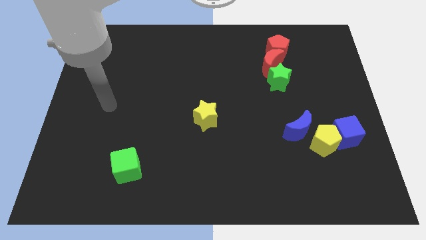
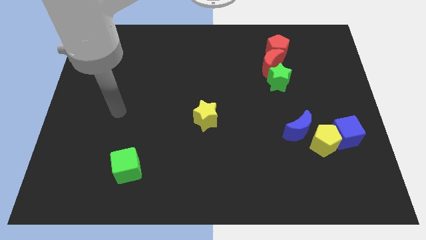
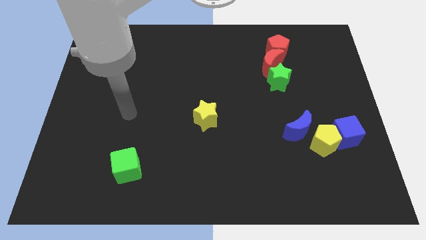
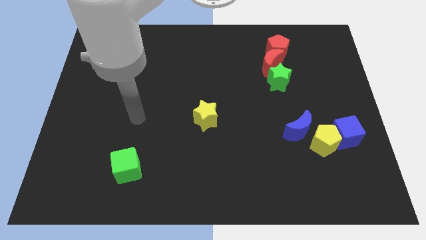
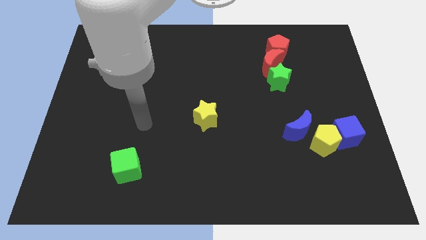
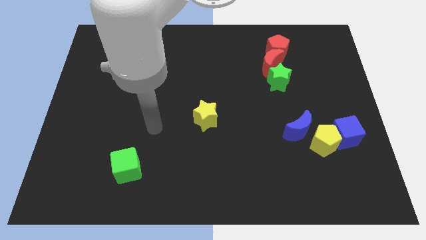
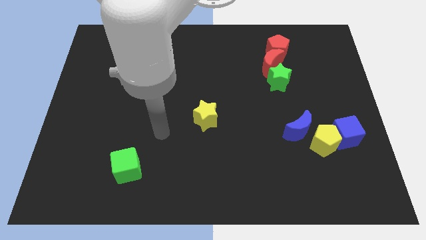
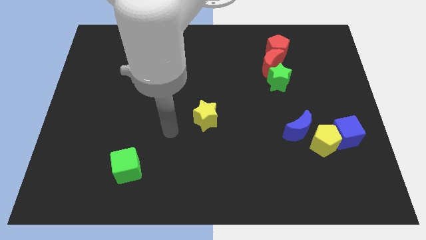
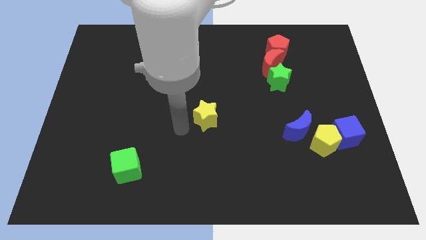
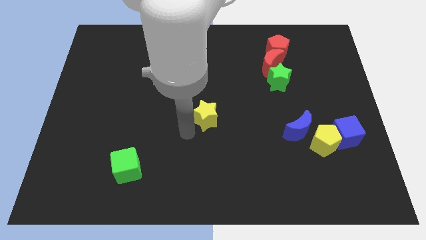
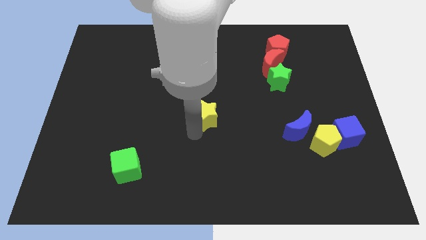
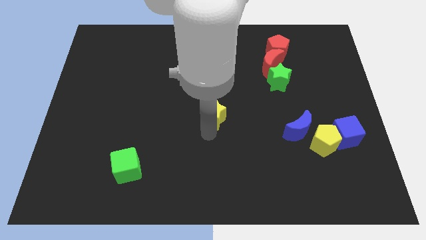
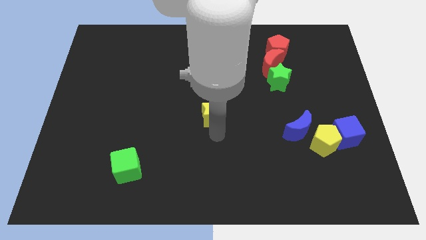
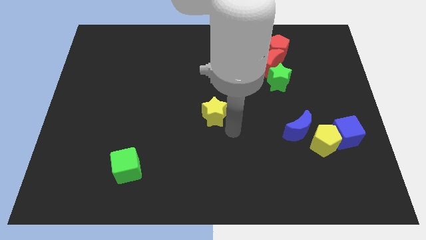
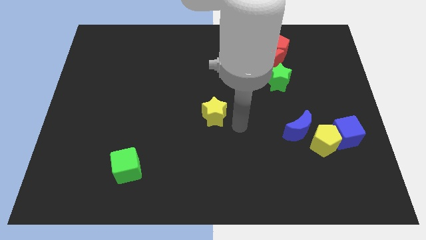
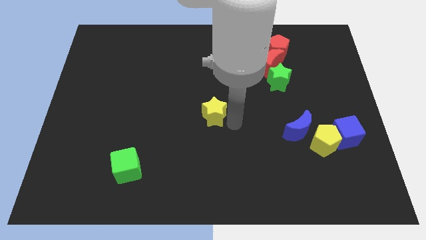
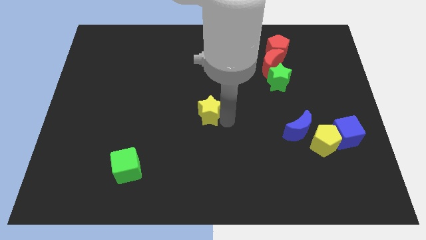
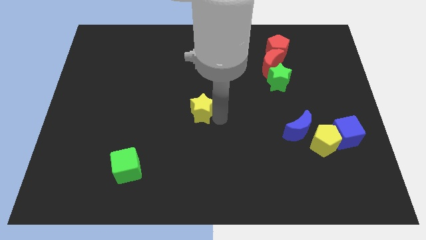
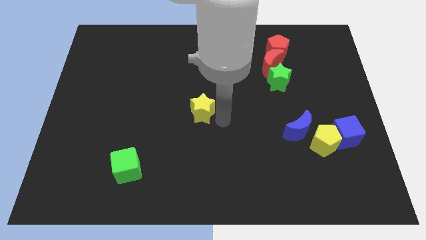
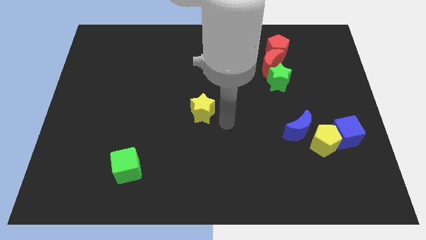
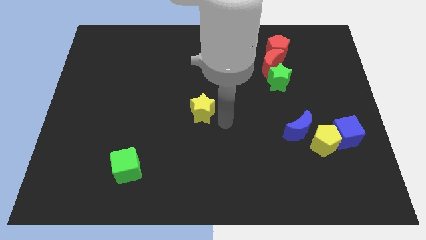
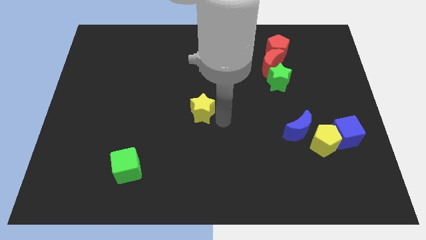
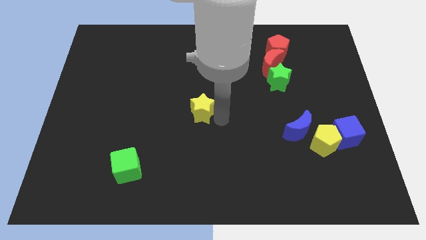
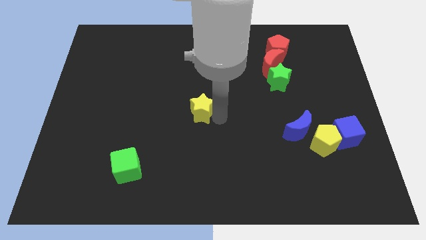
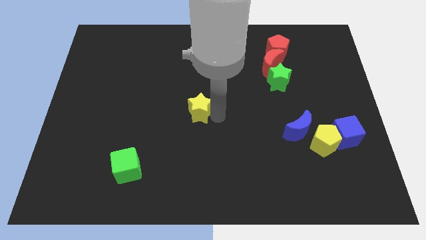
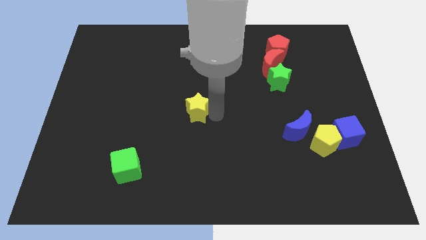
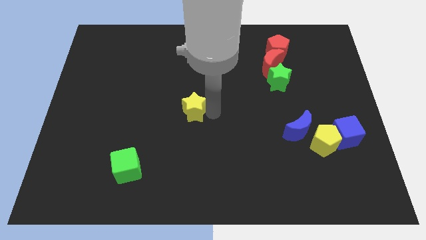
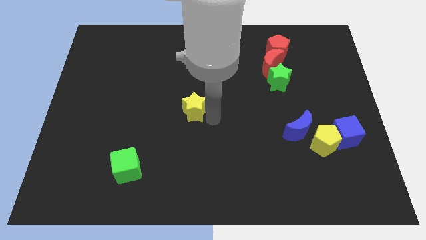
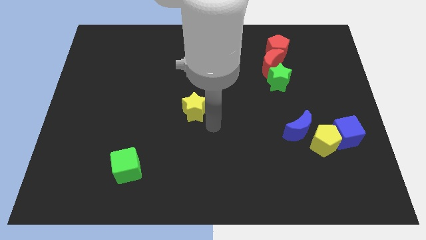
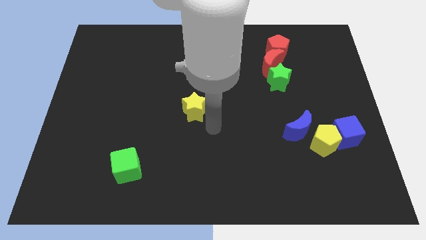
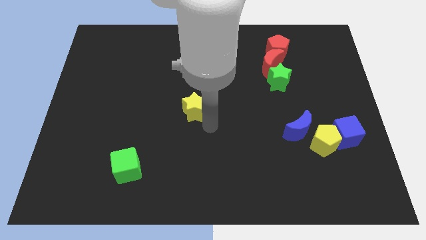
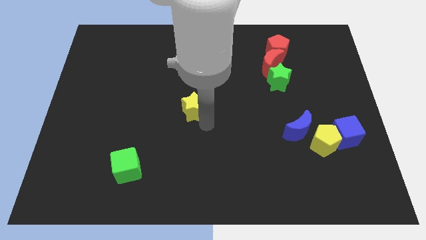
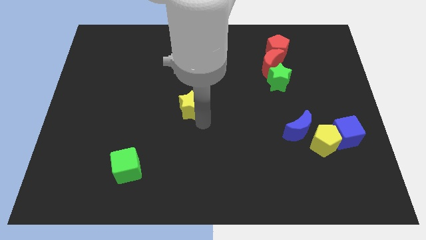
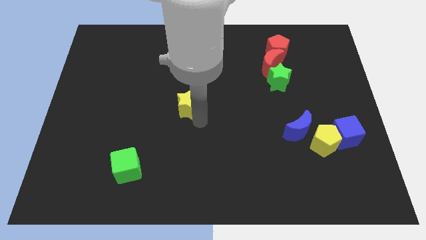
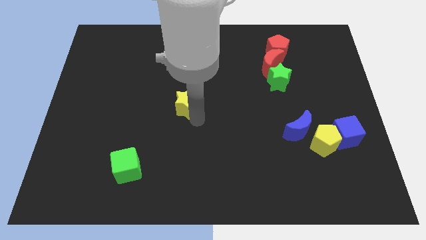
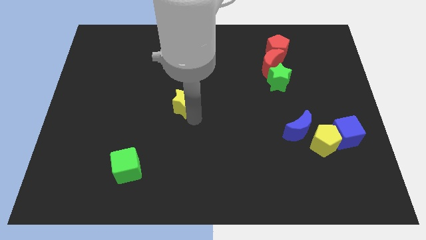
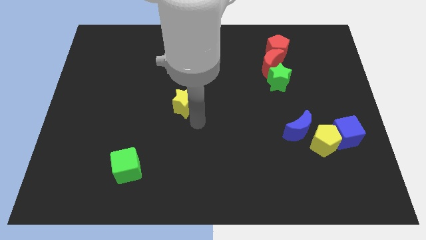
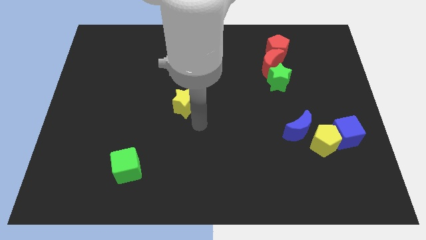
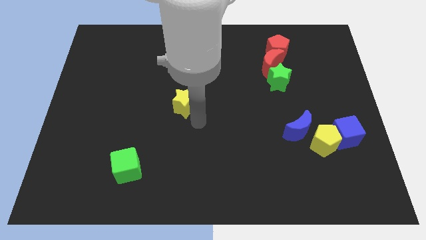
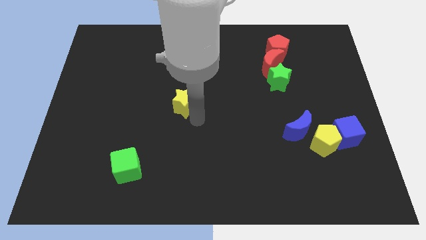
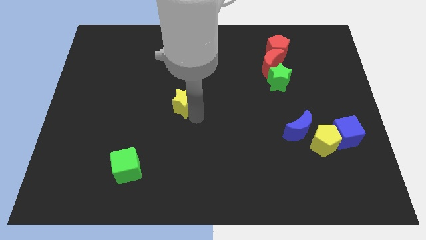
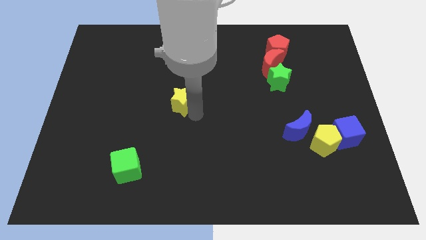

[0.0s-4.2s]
push the yellow star a little bit upwards and left diagonally

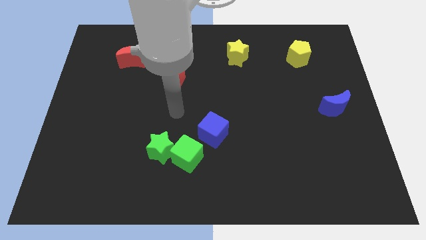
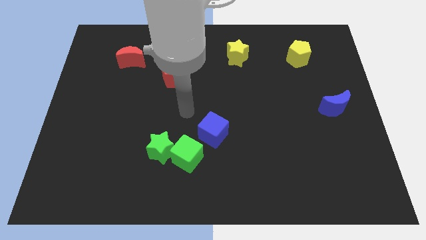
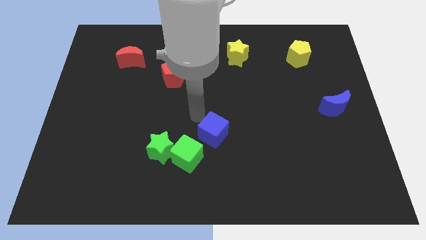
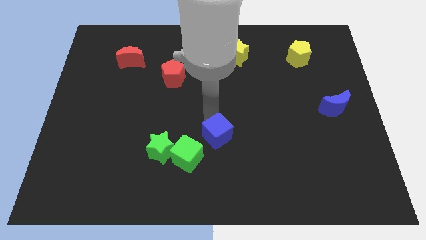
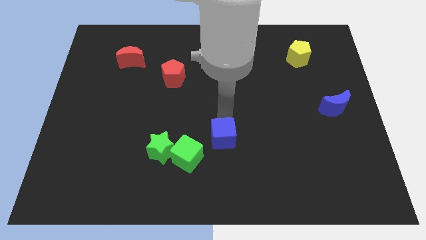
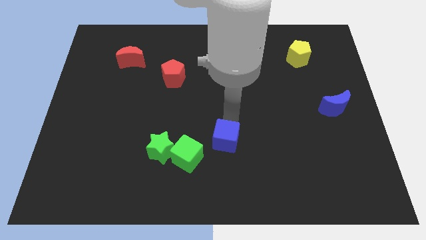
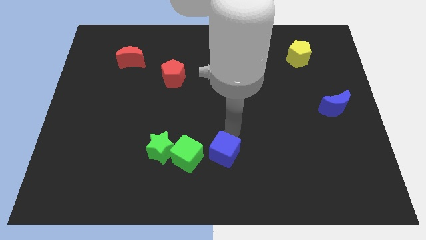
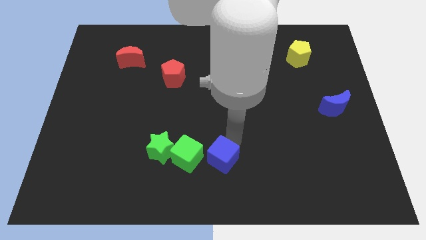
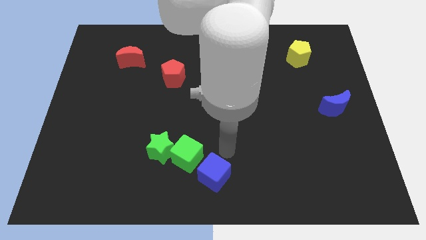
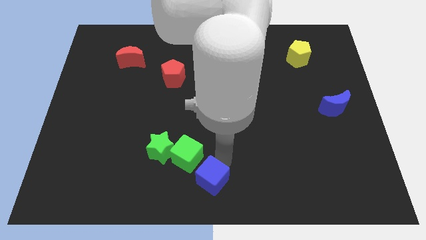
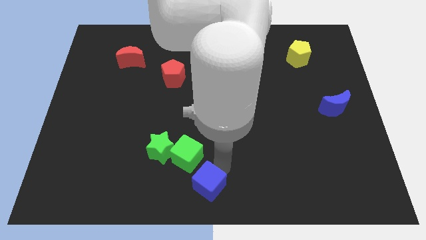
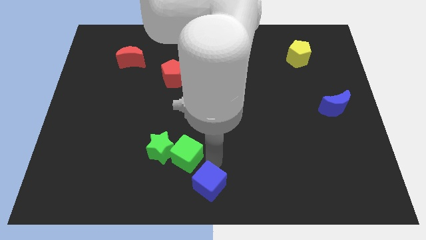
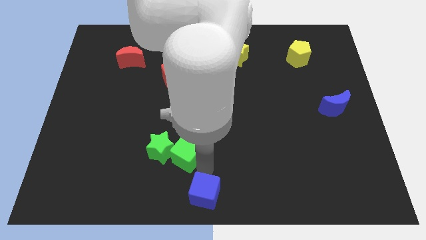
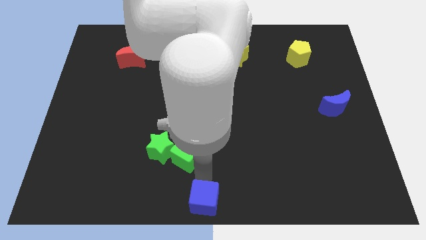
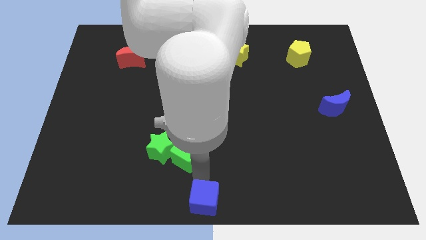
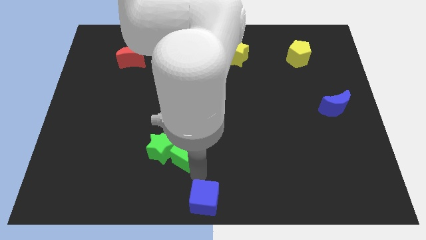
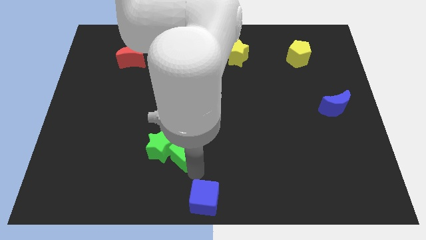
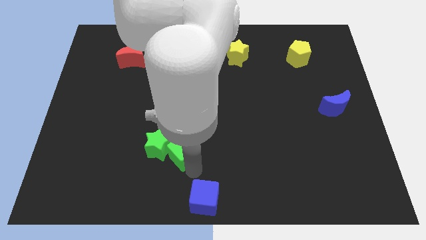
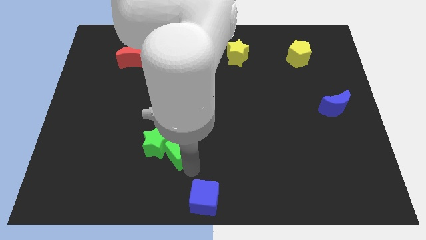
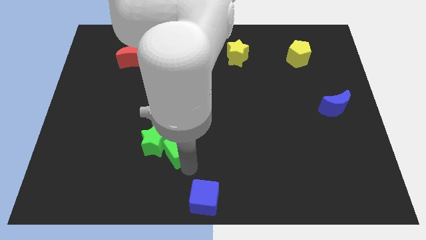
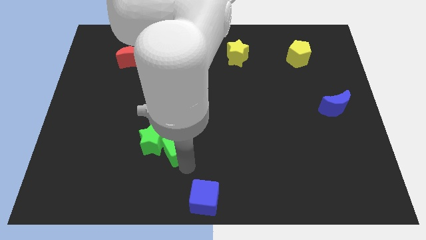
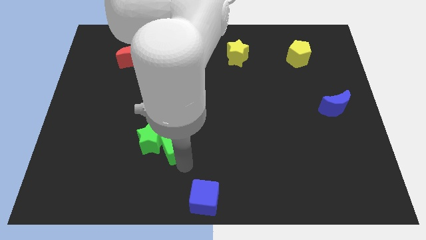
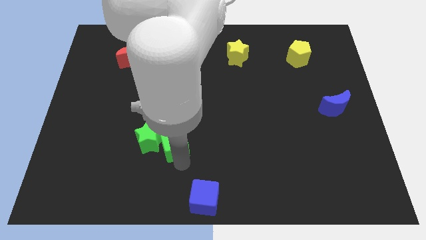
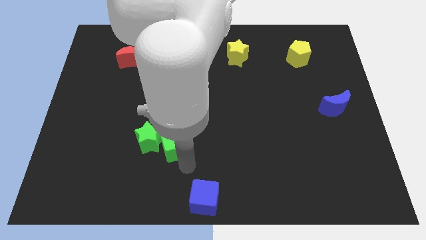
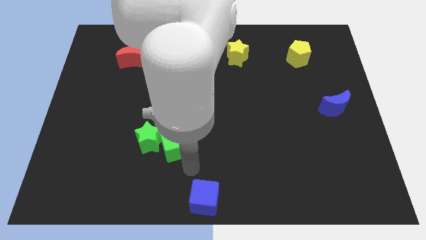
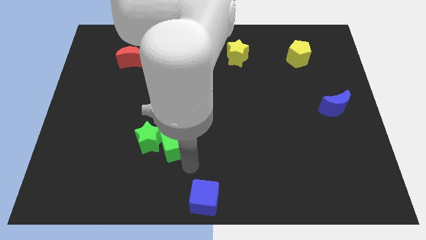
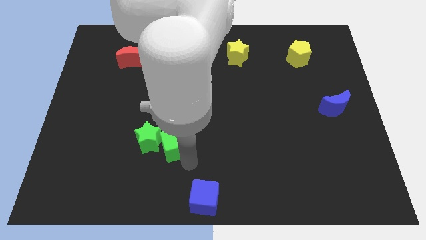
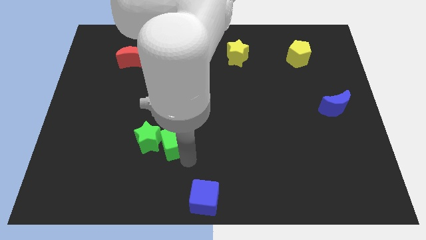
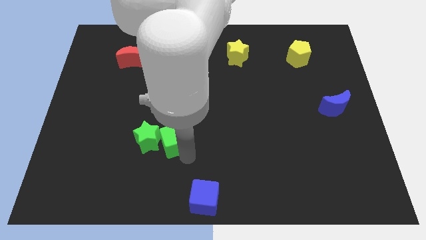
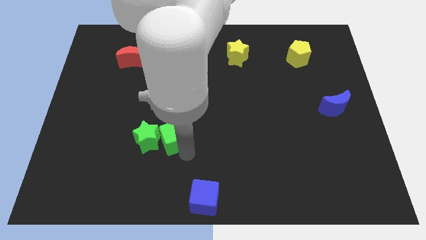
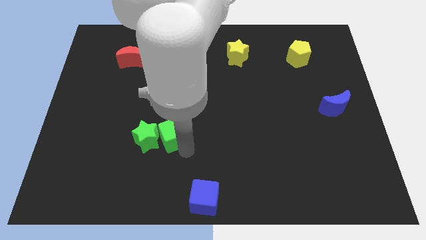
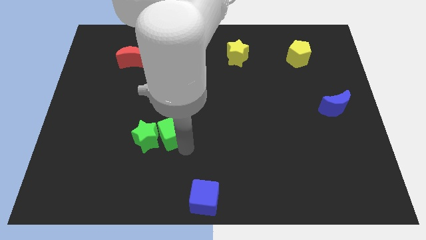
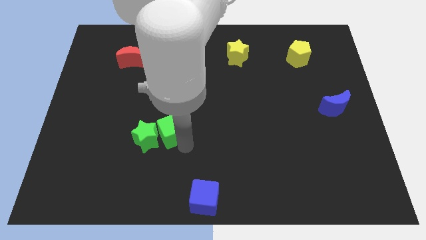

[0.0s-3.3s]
push the green cube upwards and left diagonally a bit

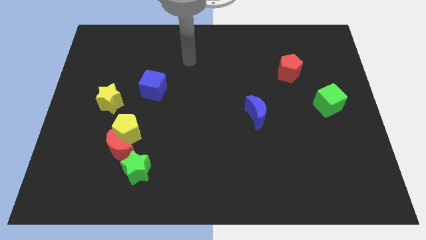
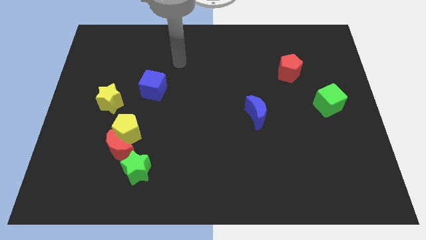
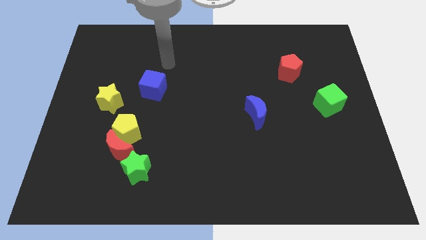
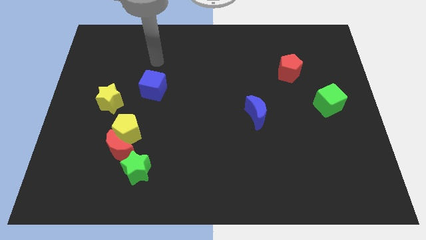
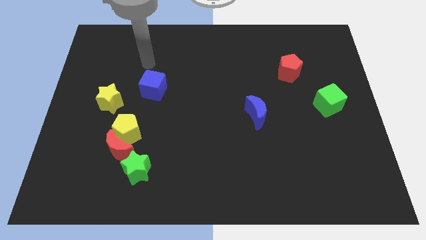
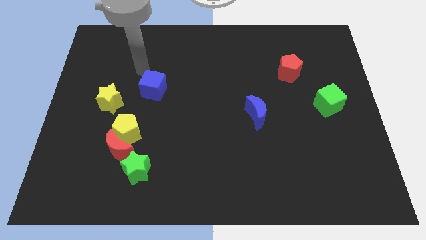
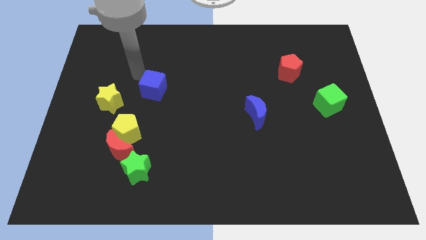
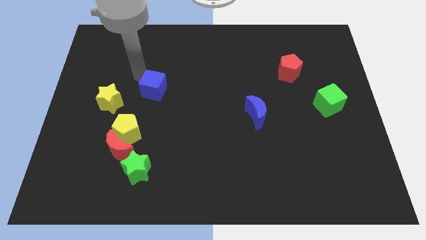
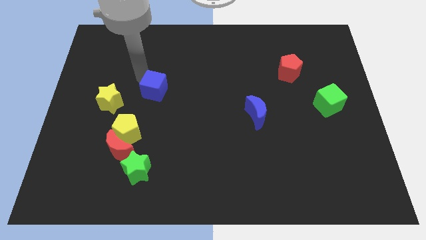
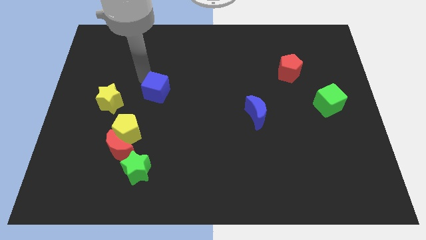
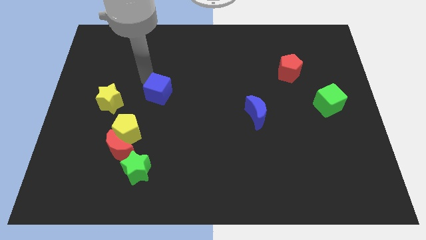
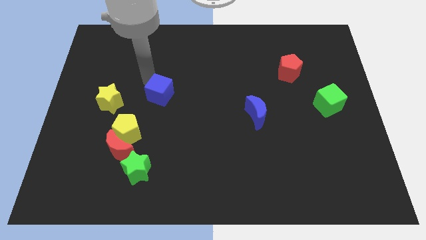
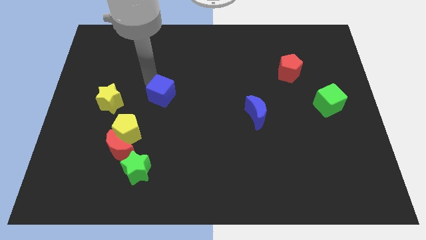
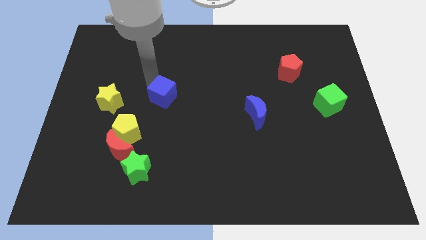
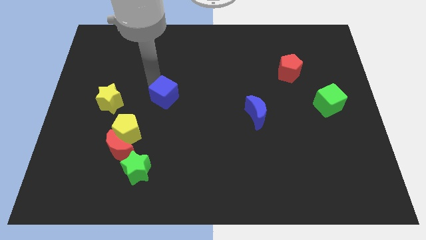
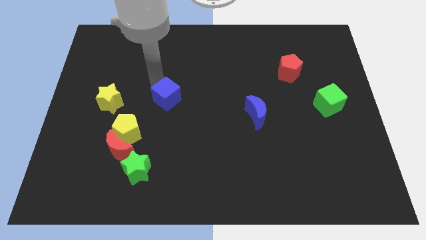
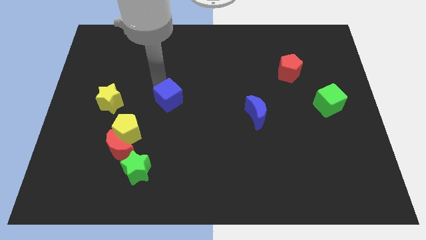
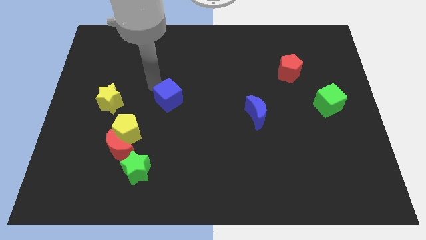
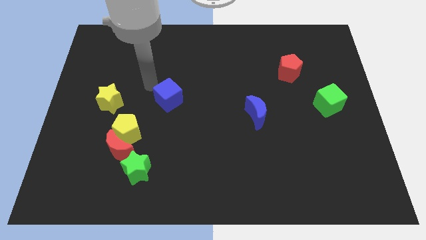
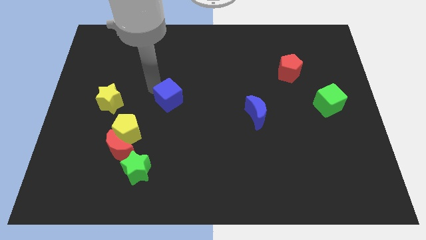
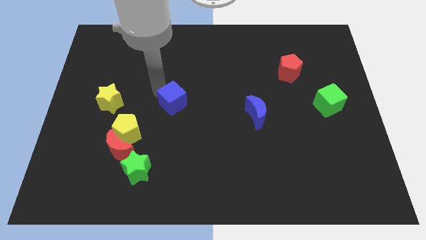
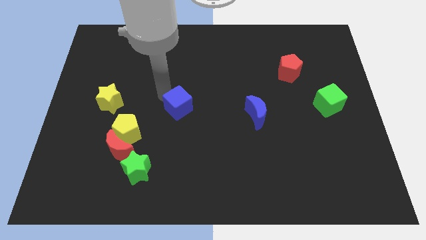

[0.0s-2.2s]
slightly push the blue cube downwards and then to the right
